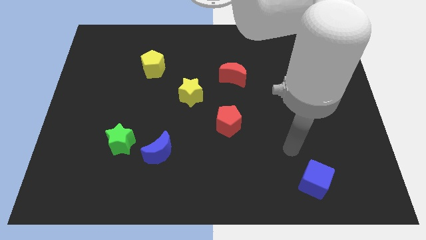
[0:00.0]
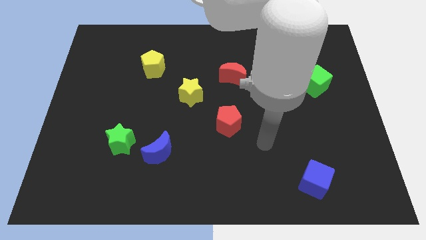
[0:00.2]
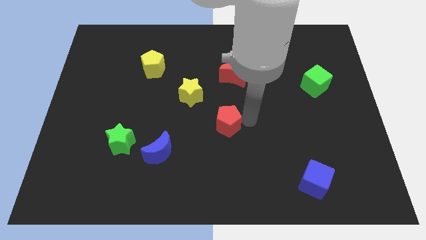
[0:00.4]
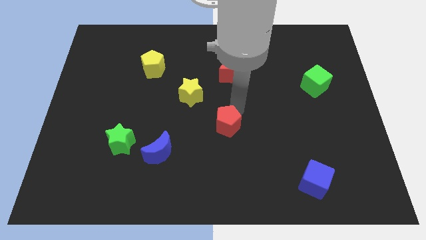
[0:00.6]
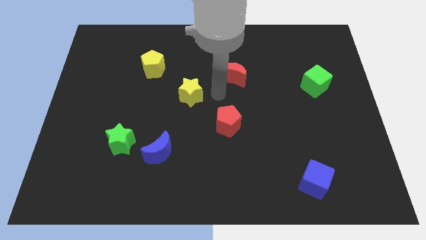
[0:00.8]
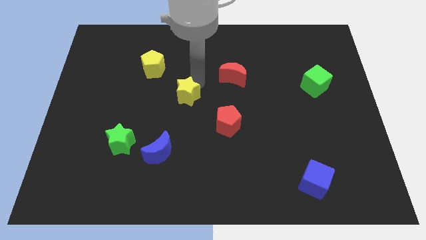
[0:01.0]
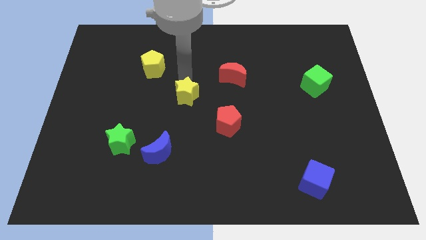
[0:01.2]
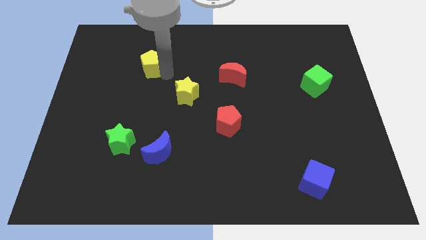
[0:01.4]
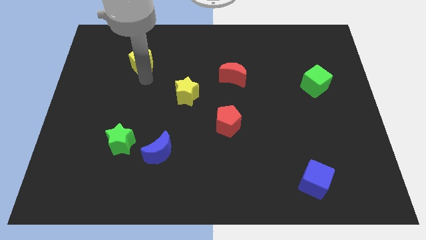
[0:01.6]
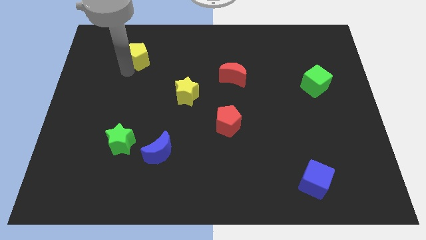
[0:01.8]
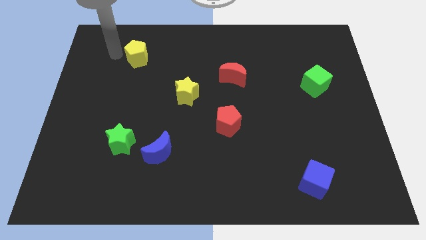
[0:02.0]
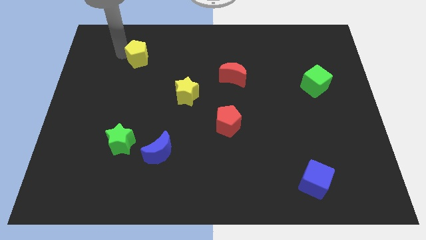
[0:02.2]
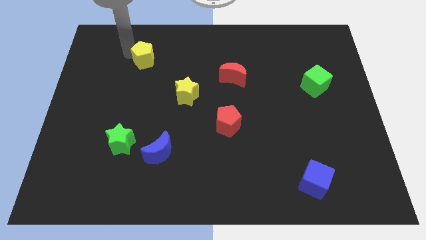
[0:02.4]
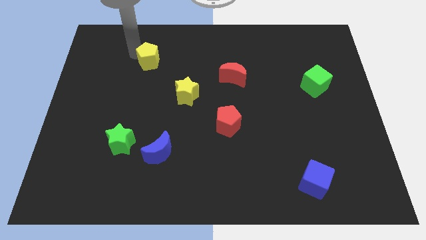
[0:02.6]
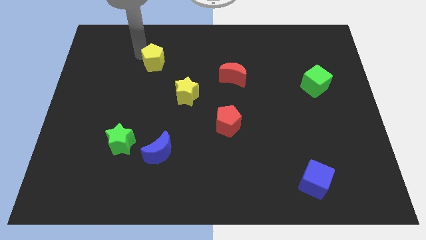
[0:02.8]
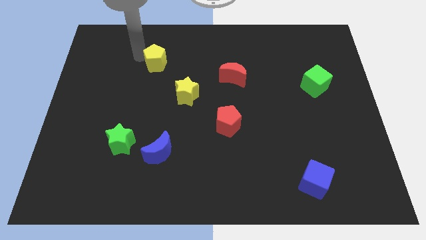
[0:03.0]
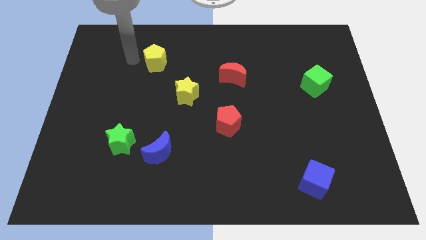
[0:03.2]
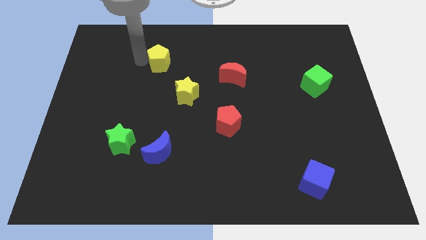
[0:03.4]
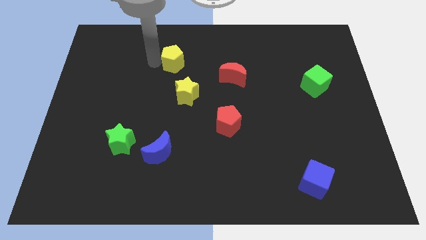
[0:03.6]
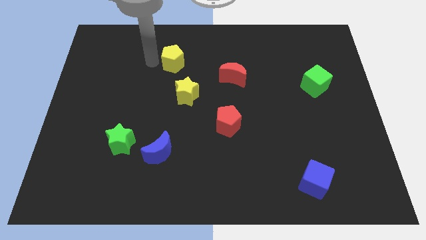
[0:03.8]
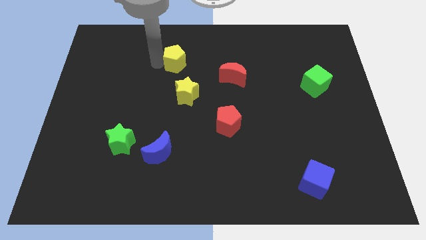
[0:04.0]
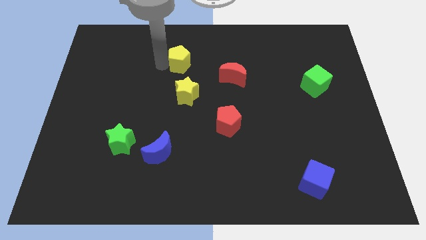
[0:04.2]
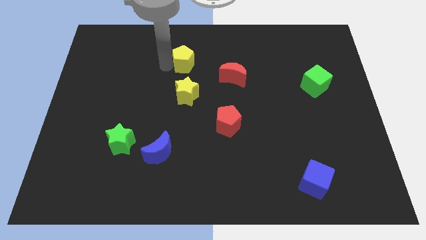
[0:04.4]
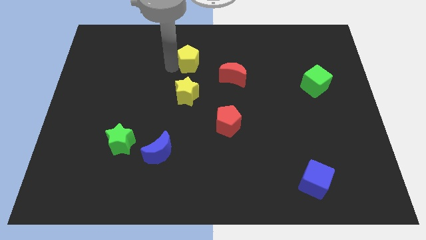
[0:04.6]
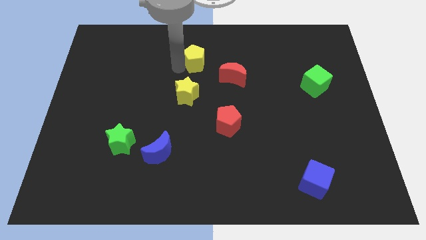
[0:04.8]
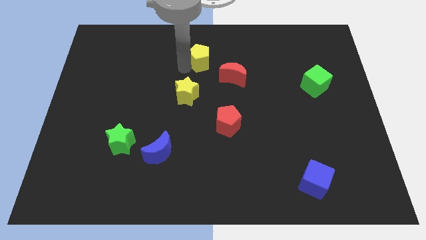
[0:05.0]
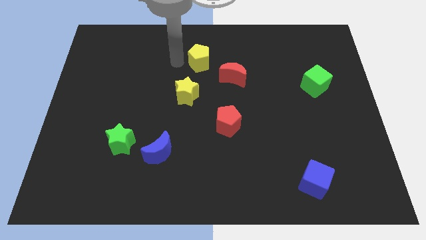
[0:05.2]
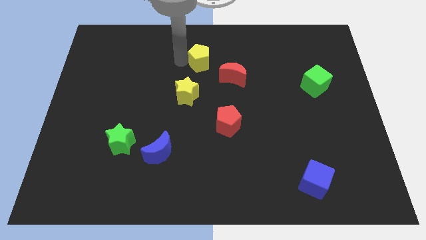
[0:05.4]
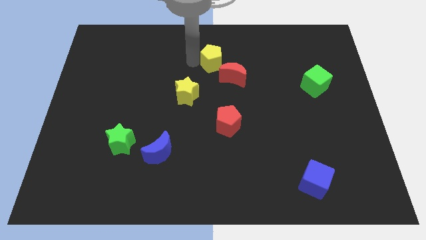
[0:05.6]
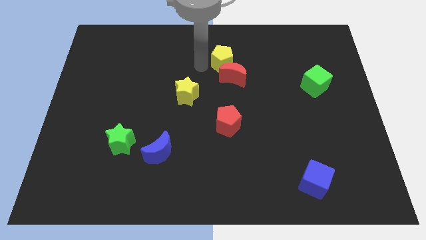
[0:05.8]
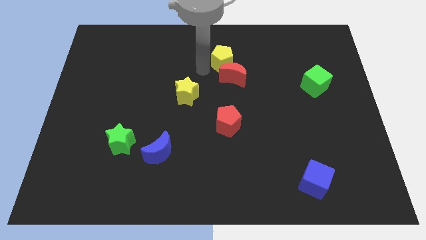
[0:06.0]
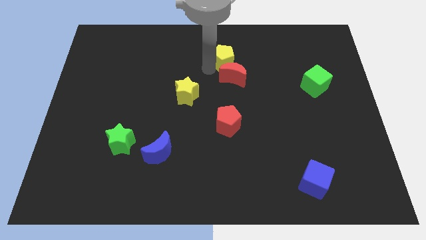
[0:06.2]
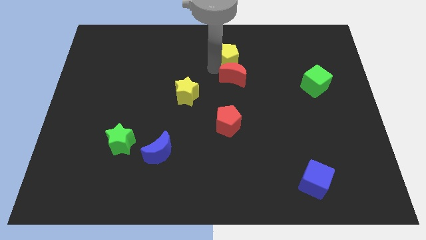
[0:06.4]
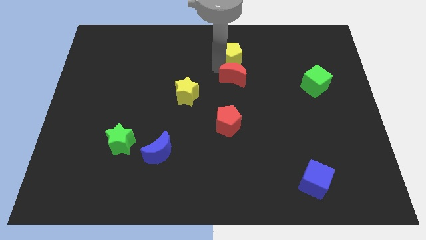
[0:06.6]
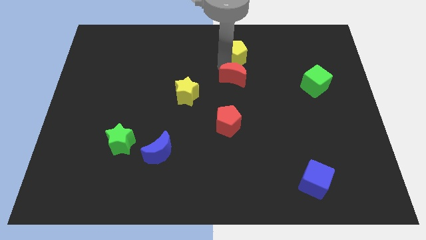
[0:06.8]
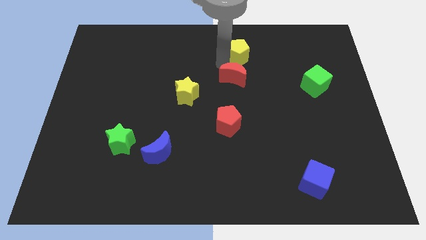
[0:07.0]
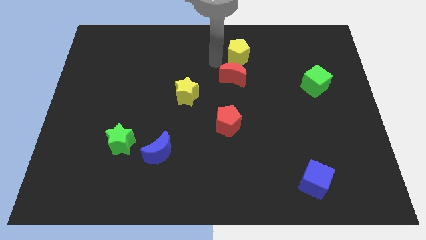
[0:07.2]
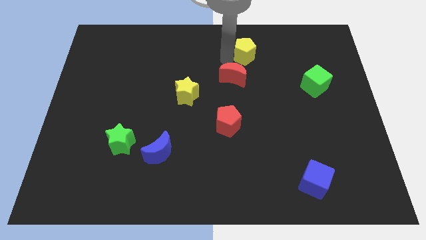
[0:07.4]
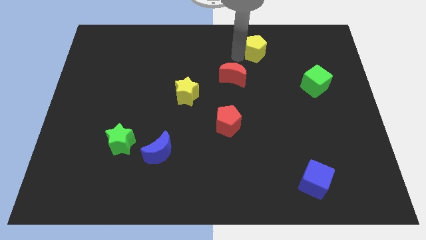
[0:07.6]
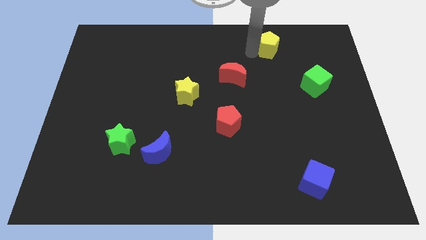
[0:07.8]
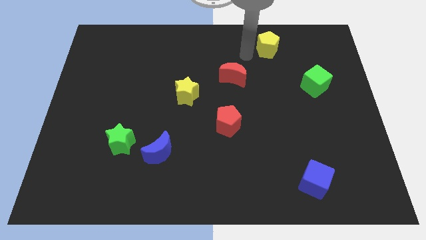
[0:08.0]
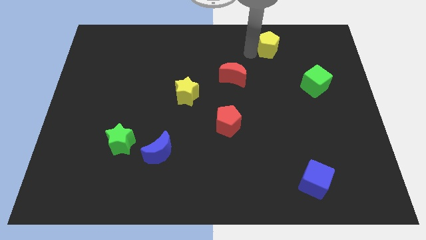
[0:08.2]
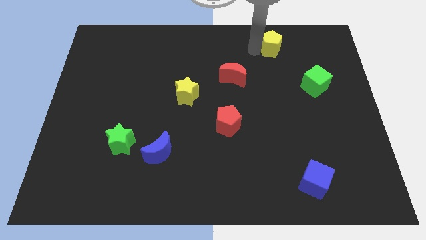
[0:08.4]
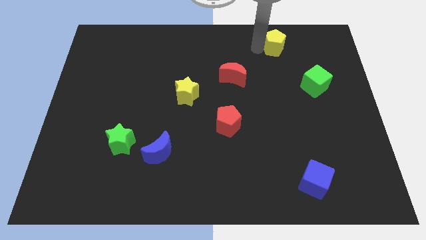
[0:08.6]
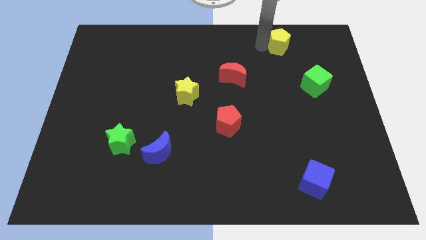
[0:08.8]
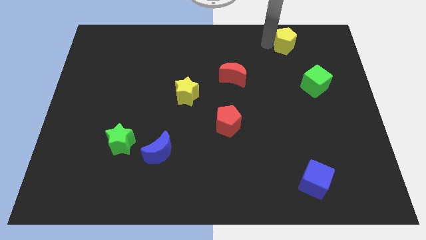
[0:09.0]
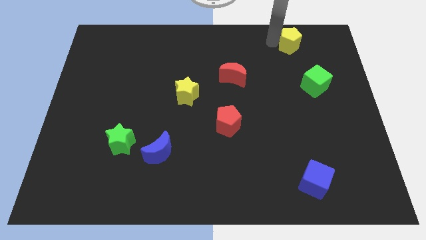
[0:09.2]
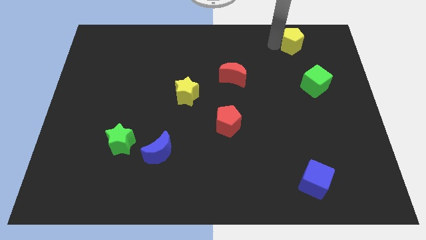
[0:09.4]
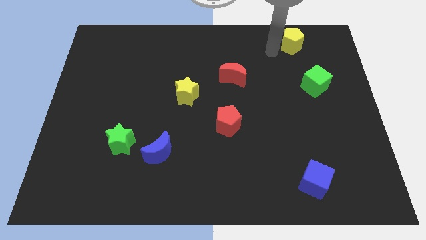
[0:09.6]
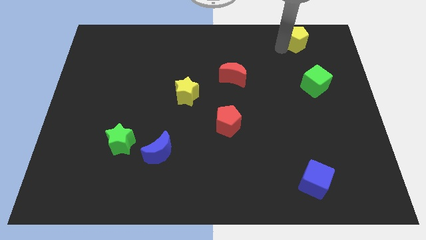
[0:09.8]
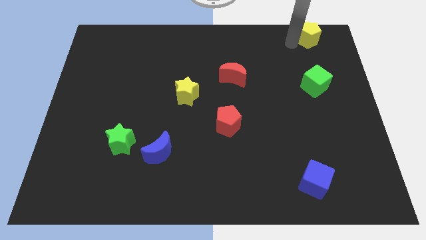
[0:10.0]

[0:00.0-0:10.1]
push the yellow pentagon to the upper right corner

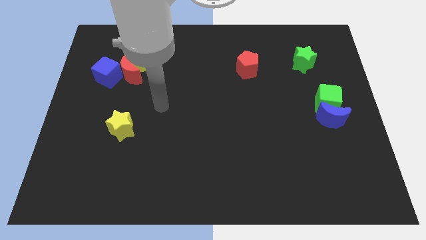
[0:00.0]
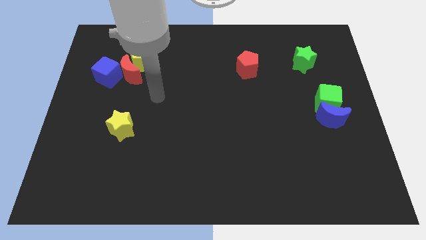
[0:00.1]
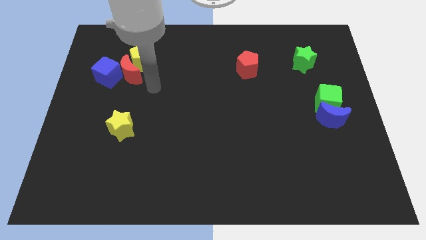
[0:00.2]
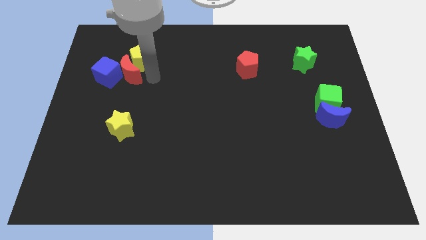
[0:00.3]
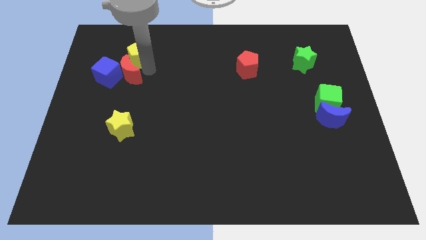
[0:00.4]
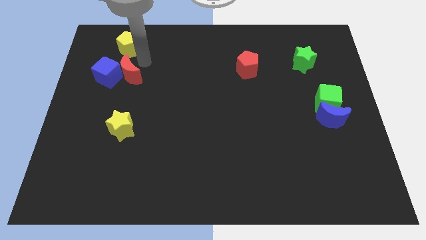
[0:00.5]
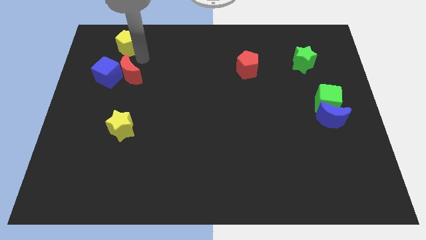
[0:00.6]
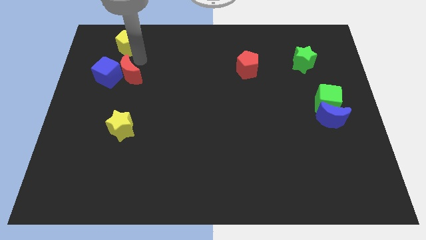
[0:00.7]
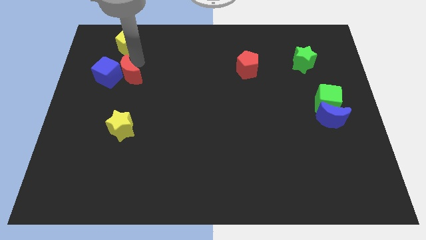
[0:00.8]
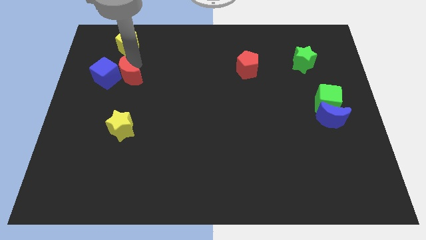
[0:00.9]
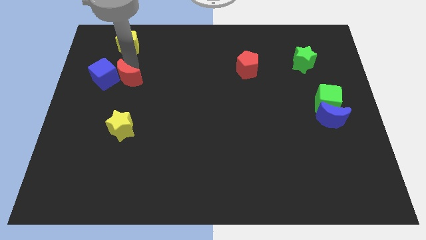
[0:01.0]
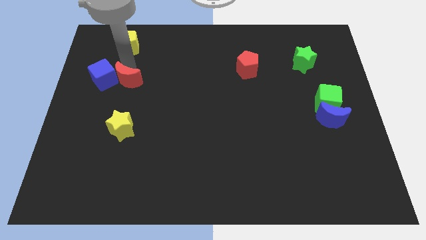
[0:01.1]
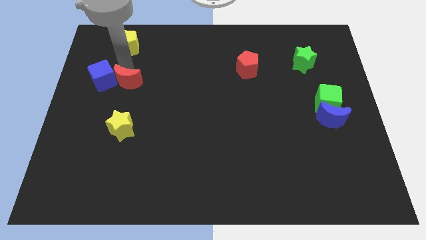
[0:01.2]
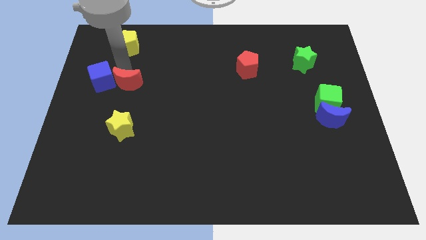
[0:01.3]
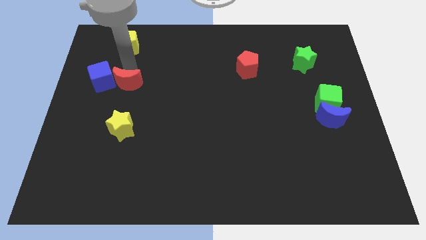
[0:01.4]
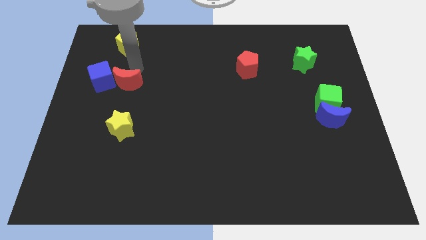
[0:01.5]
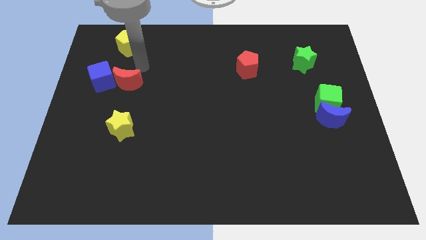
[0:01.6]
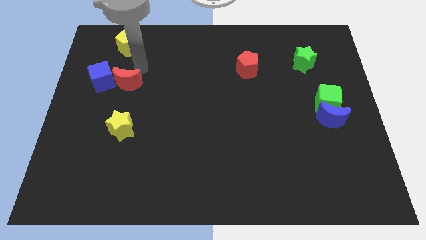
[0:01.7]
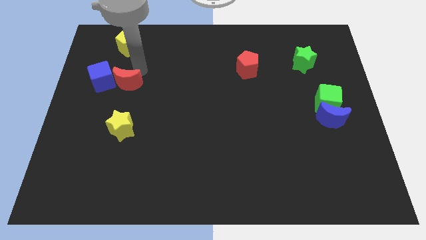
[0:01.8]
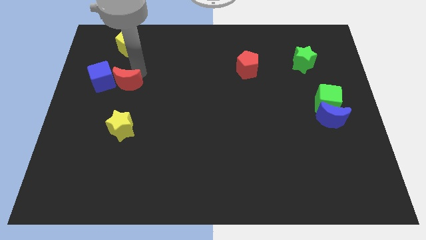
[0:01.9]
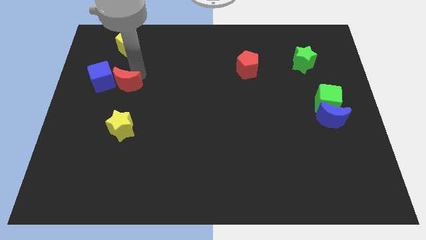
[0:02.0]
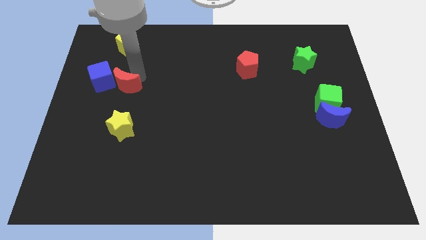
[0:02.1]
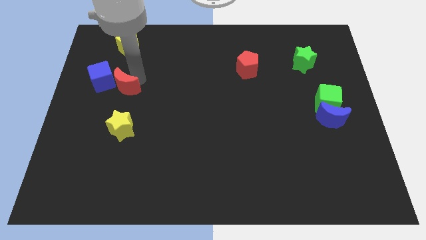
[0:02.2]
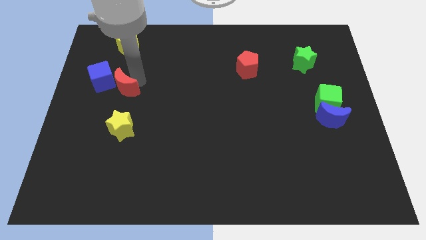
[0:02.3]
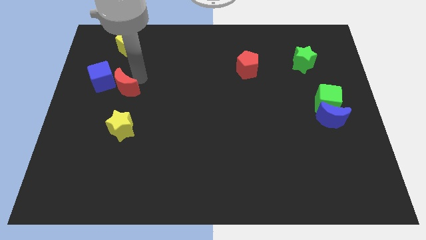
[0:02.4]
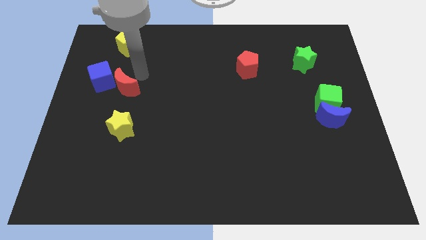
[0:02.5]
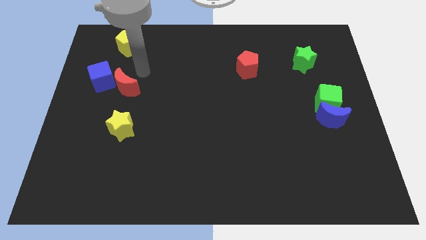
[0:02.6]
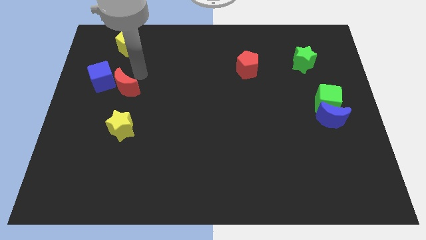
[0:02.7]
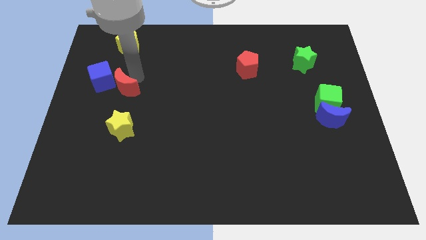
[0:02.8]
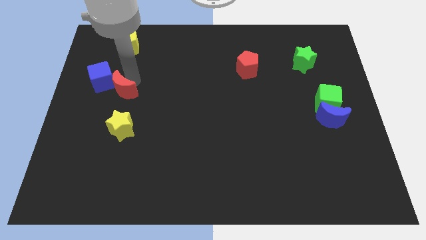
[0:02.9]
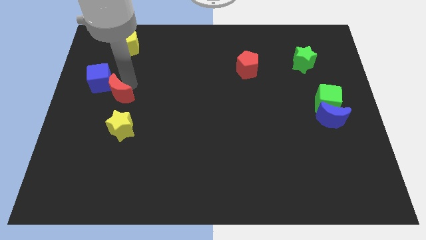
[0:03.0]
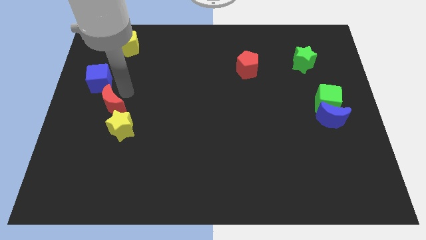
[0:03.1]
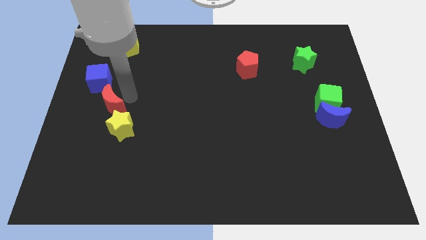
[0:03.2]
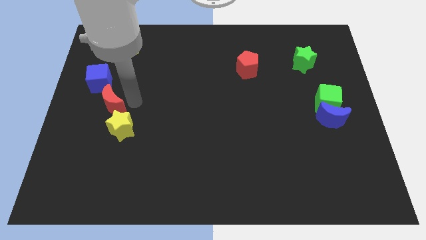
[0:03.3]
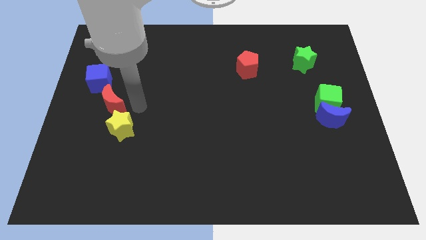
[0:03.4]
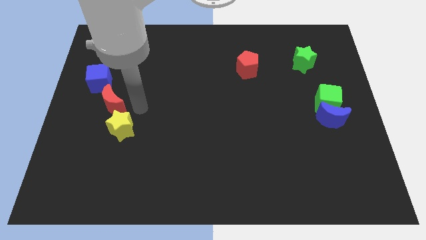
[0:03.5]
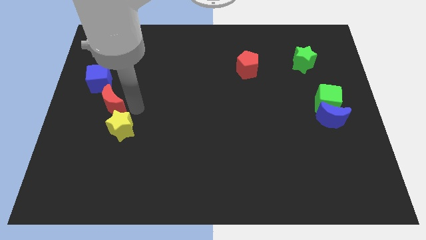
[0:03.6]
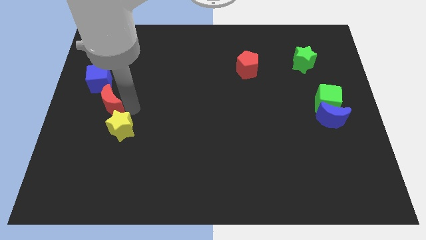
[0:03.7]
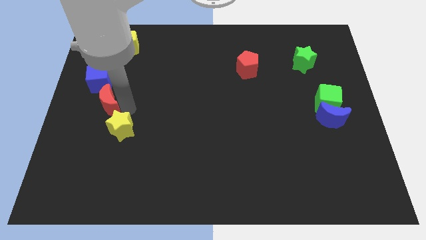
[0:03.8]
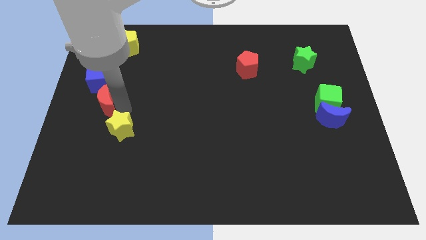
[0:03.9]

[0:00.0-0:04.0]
put the red moon to the center left
